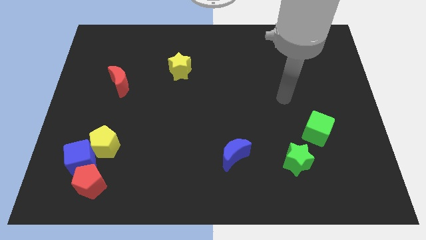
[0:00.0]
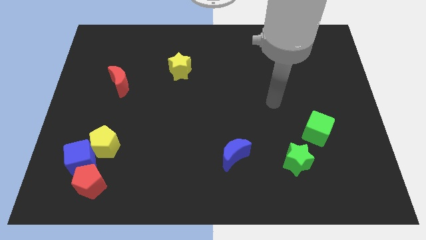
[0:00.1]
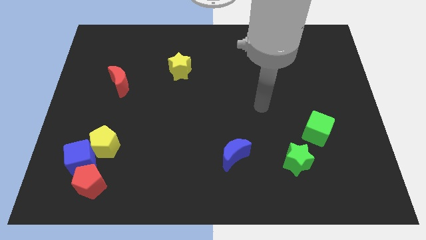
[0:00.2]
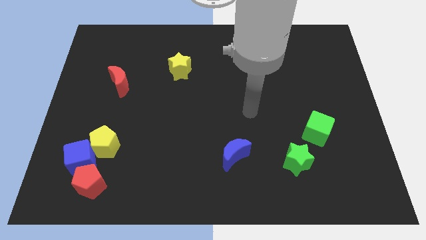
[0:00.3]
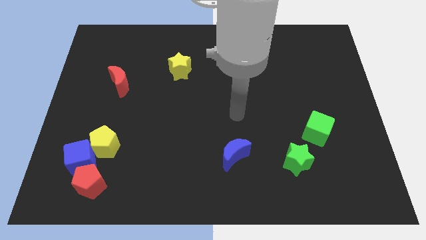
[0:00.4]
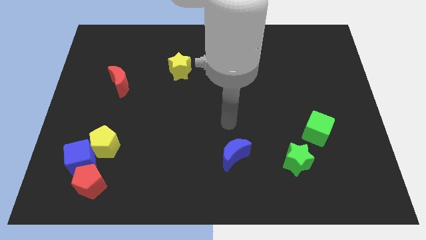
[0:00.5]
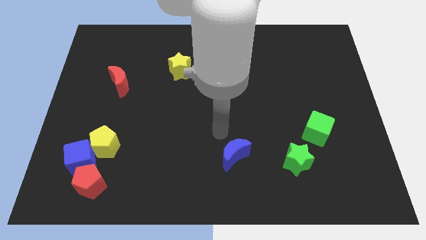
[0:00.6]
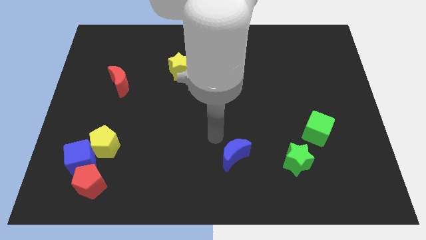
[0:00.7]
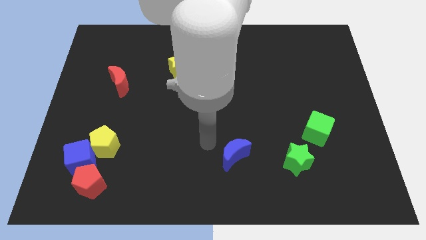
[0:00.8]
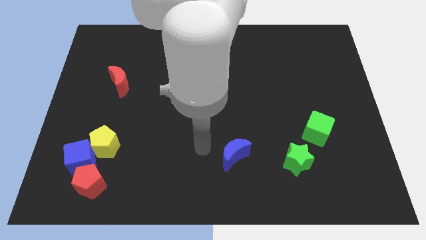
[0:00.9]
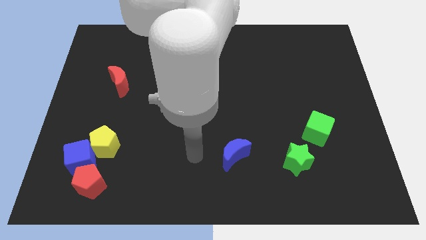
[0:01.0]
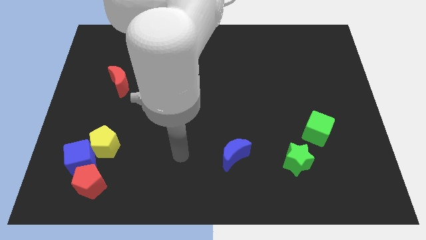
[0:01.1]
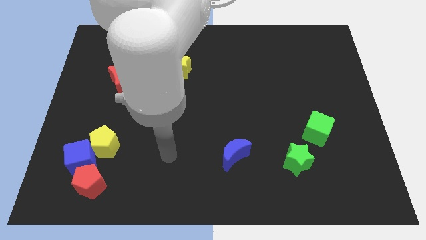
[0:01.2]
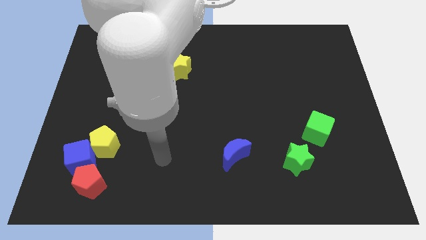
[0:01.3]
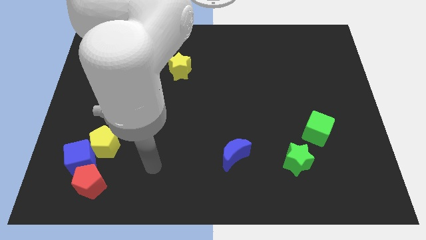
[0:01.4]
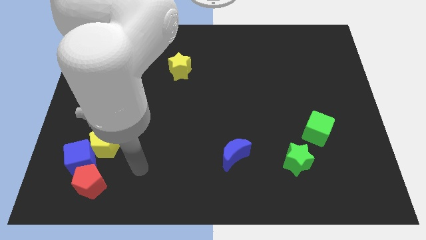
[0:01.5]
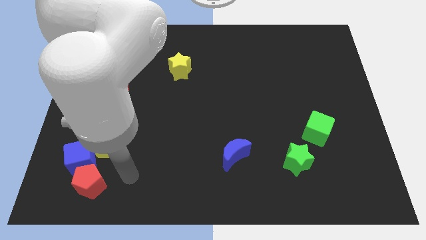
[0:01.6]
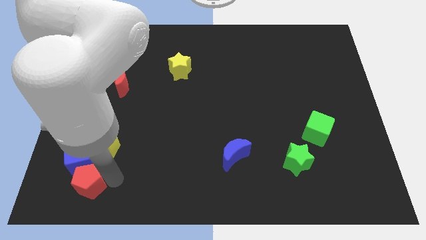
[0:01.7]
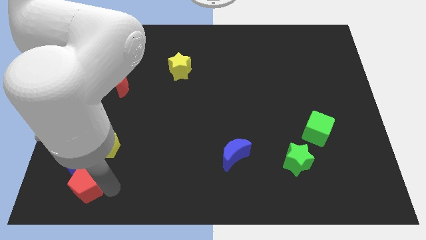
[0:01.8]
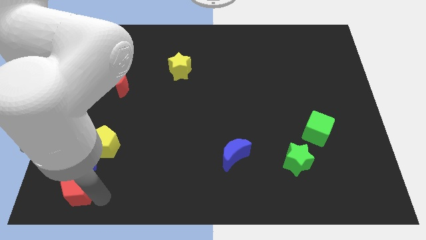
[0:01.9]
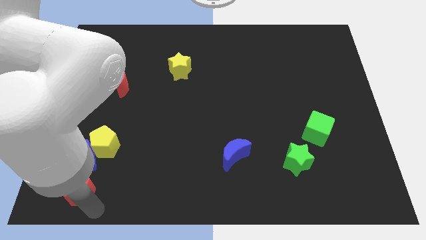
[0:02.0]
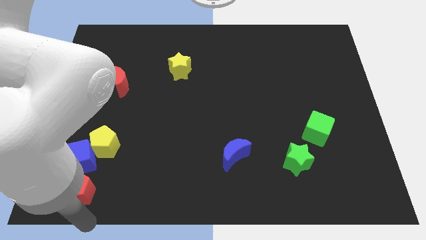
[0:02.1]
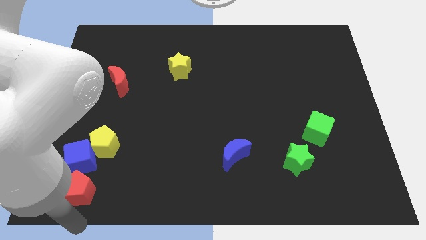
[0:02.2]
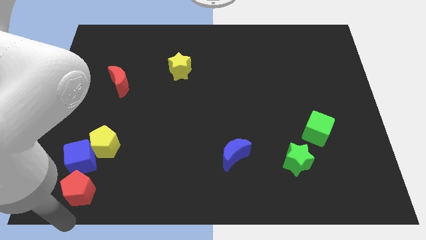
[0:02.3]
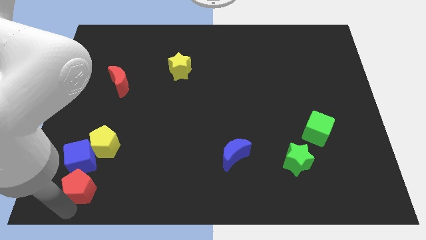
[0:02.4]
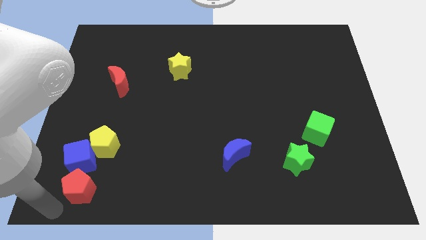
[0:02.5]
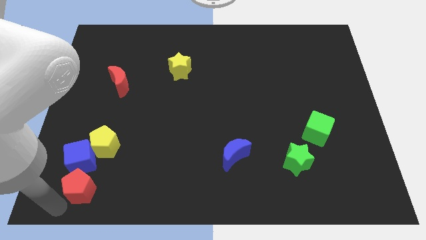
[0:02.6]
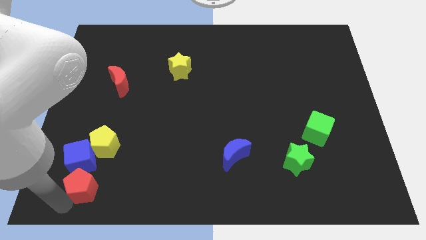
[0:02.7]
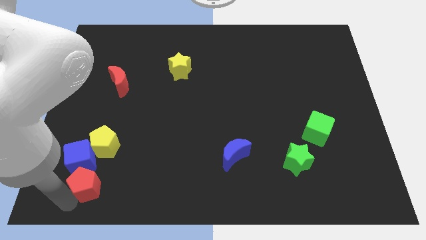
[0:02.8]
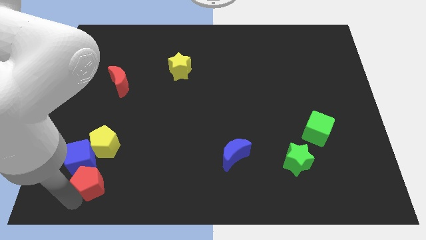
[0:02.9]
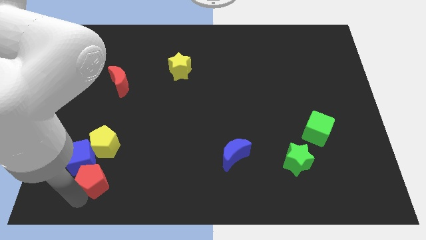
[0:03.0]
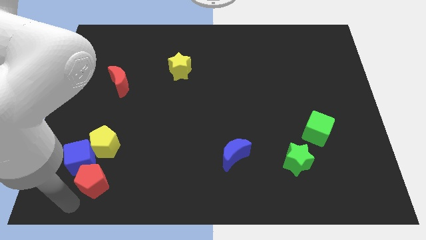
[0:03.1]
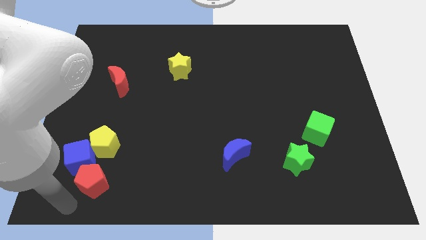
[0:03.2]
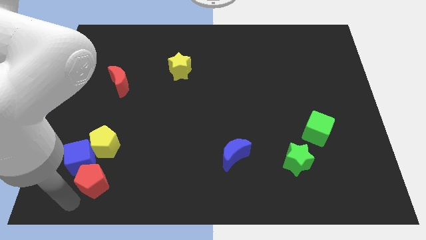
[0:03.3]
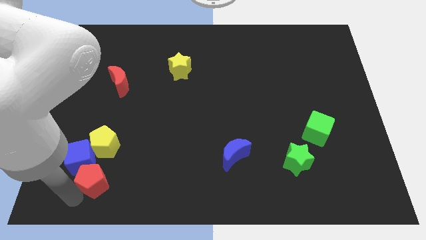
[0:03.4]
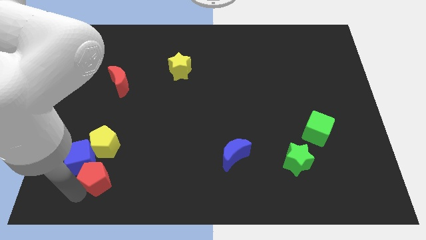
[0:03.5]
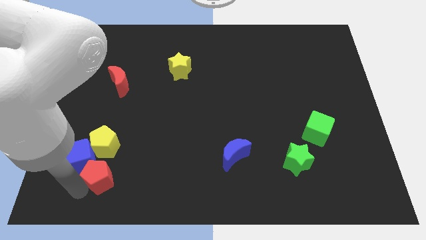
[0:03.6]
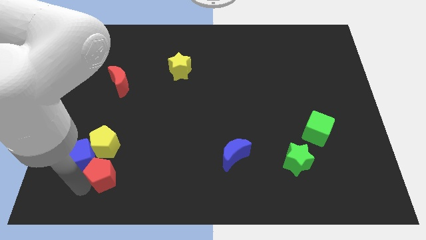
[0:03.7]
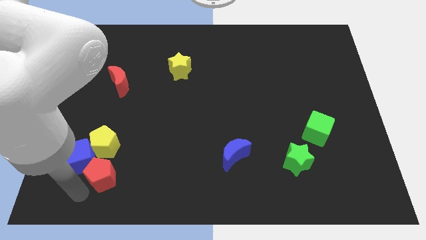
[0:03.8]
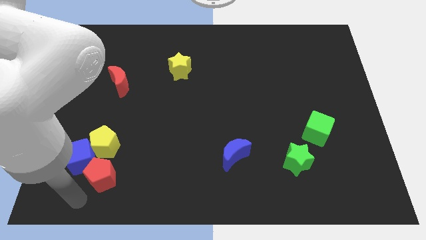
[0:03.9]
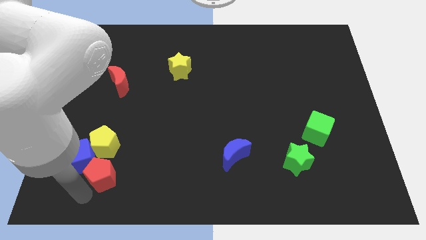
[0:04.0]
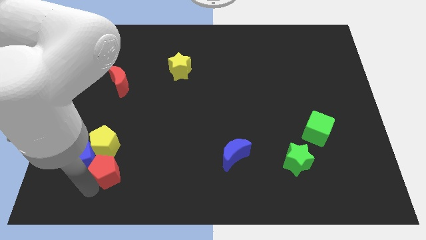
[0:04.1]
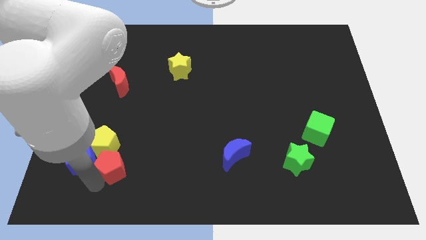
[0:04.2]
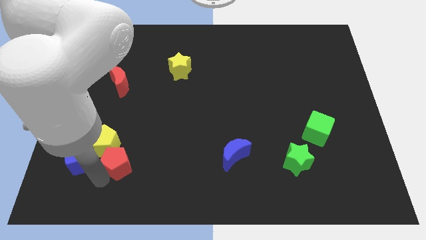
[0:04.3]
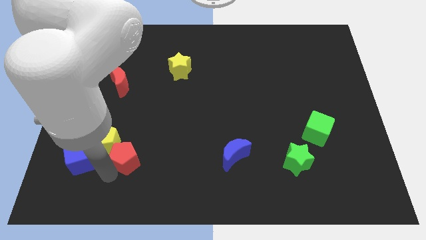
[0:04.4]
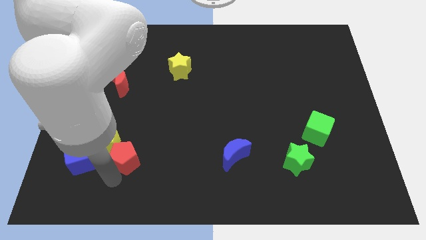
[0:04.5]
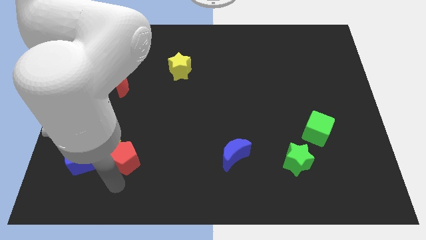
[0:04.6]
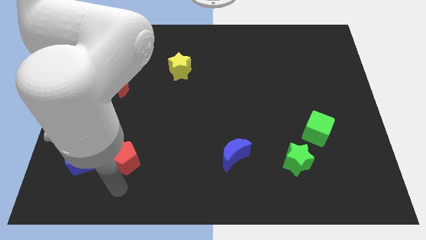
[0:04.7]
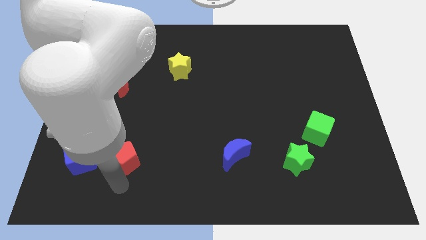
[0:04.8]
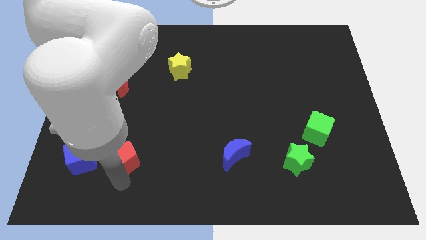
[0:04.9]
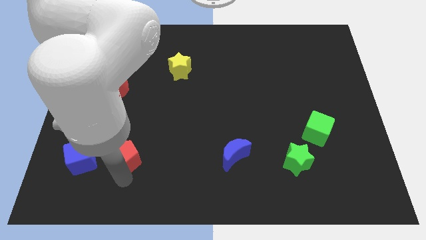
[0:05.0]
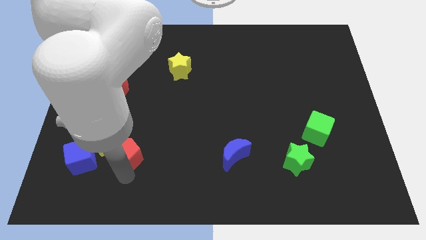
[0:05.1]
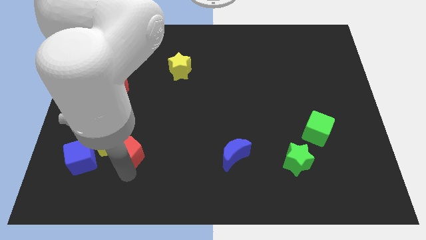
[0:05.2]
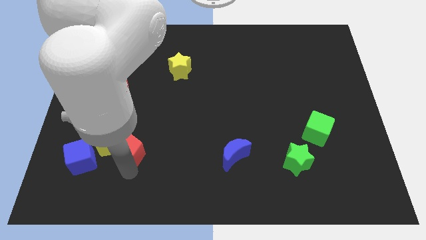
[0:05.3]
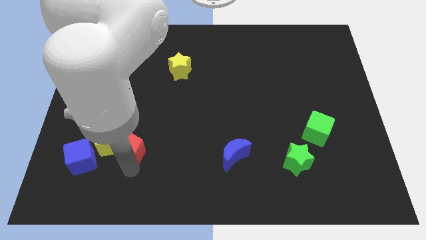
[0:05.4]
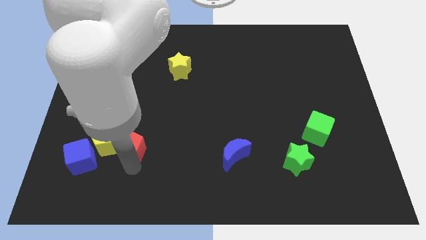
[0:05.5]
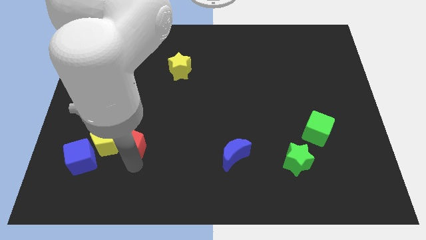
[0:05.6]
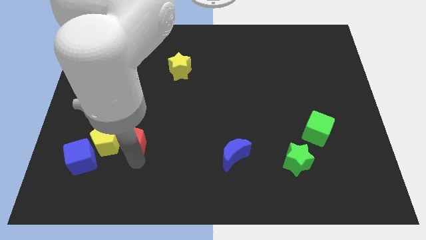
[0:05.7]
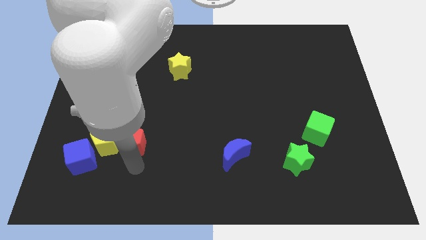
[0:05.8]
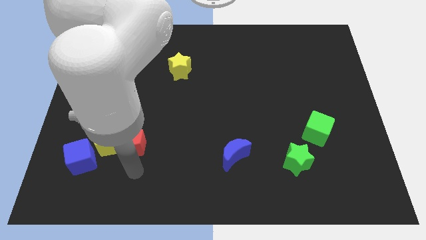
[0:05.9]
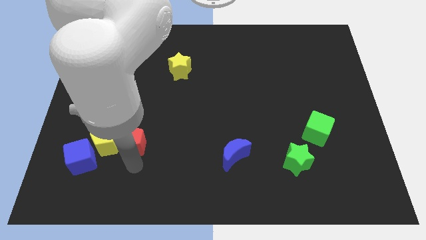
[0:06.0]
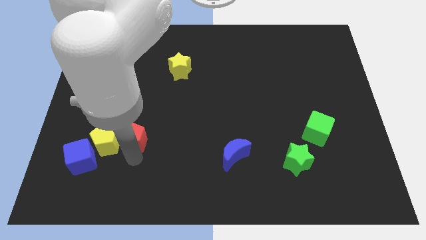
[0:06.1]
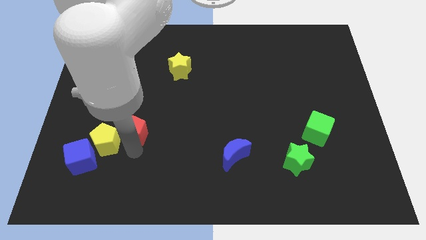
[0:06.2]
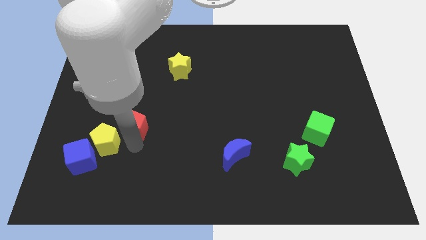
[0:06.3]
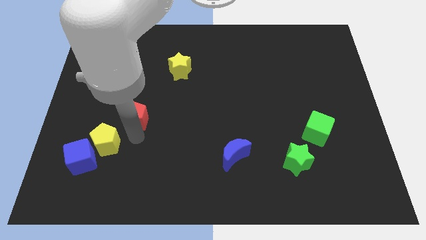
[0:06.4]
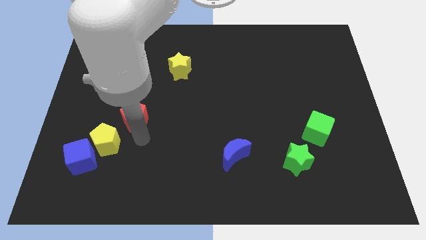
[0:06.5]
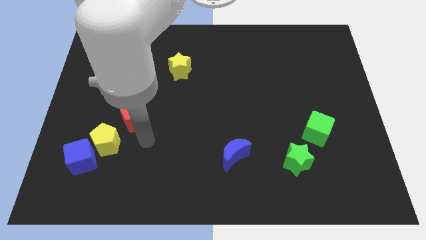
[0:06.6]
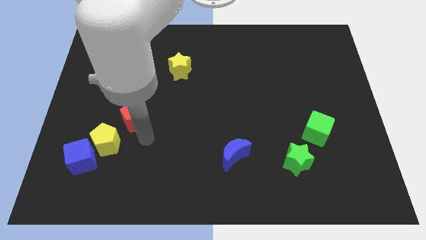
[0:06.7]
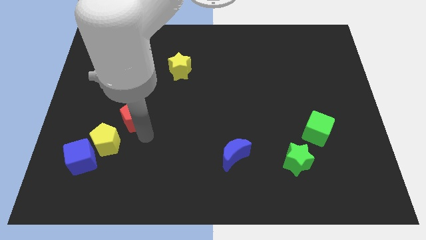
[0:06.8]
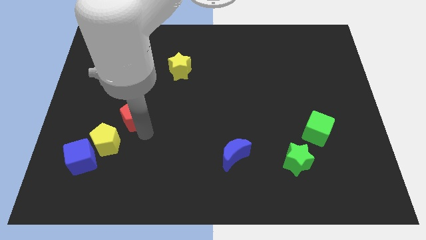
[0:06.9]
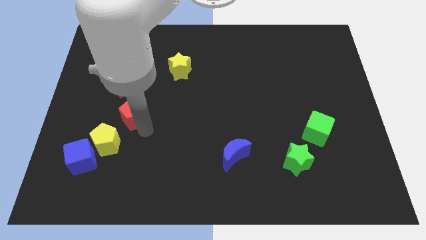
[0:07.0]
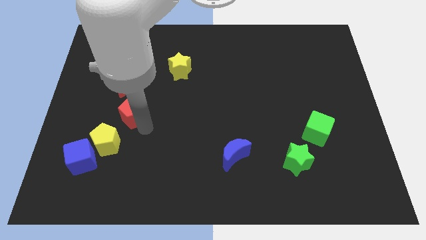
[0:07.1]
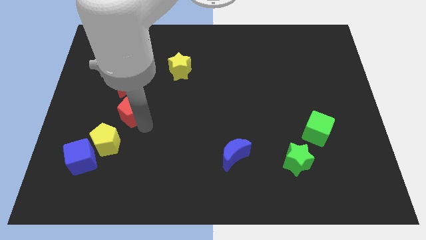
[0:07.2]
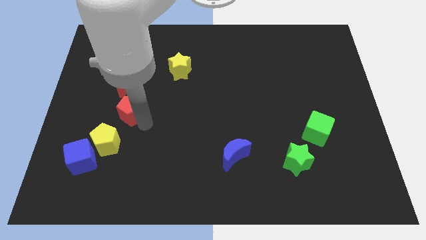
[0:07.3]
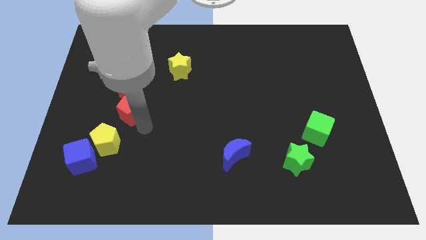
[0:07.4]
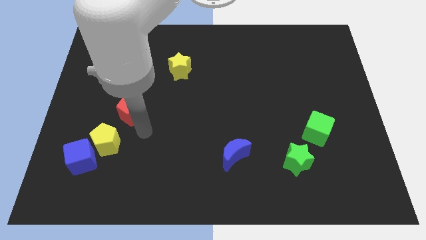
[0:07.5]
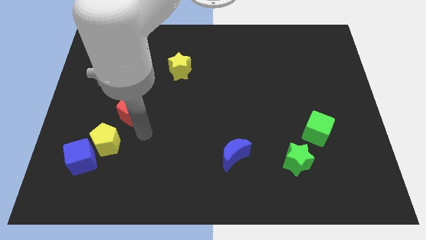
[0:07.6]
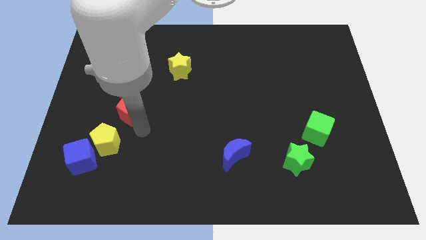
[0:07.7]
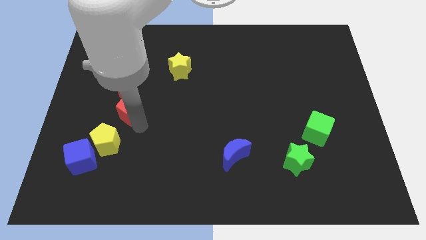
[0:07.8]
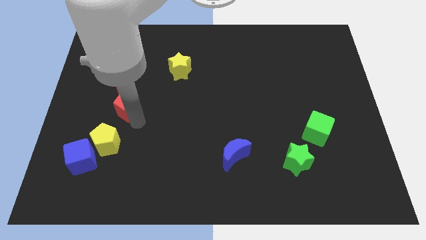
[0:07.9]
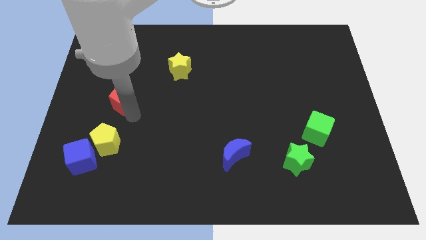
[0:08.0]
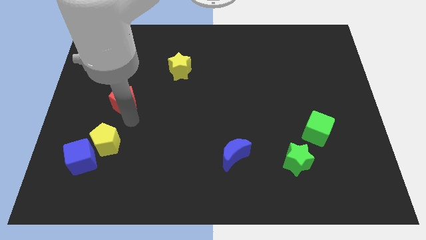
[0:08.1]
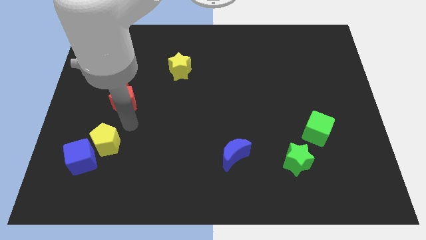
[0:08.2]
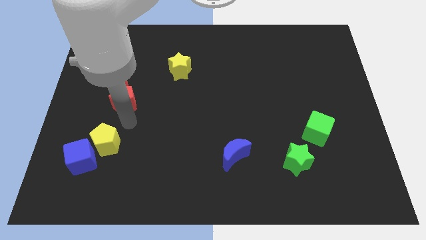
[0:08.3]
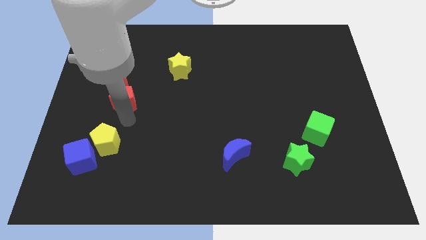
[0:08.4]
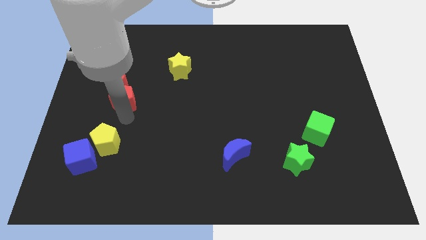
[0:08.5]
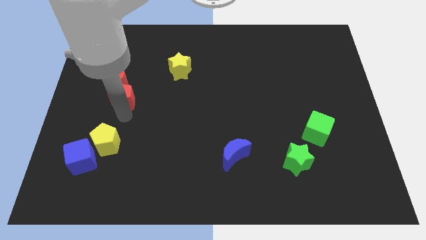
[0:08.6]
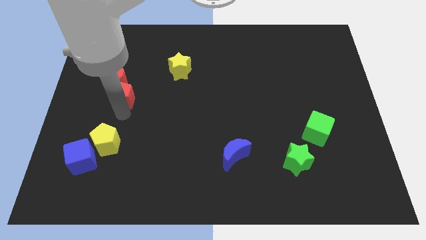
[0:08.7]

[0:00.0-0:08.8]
put the red pentagon to the red moon
